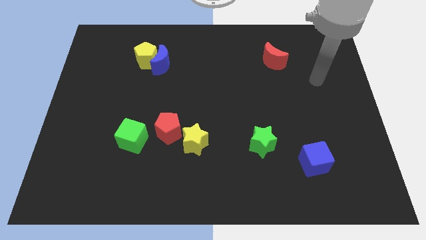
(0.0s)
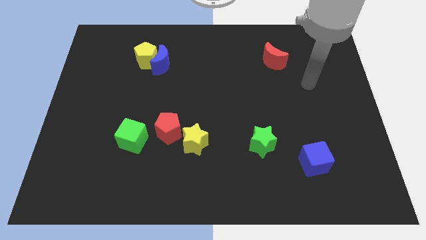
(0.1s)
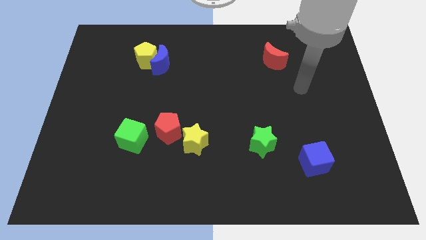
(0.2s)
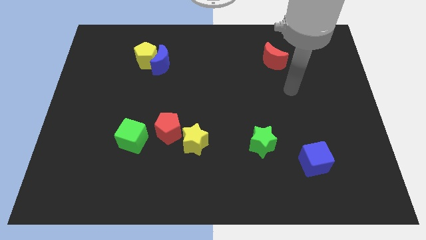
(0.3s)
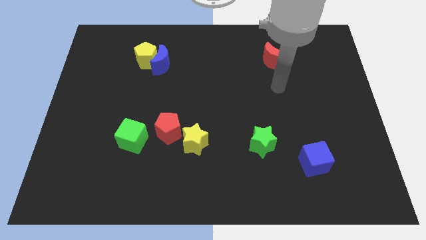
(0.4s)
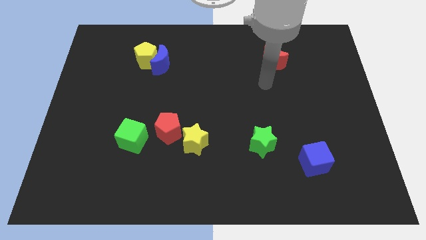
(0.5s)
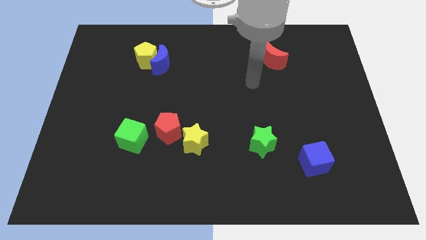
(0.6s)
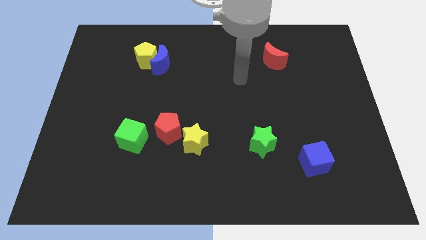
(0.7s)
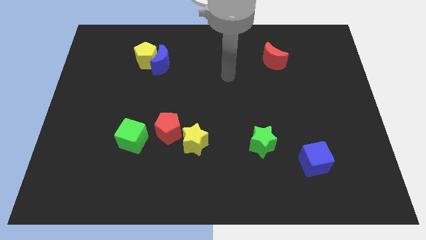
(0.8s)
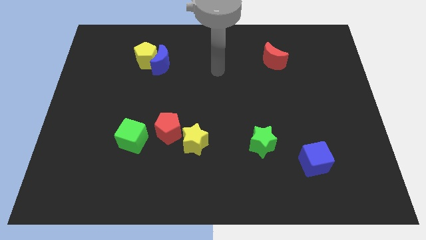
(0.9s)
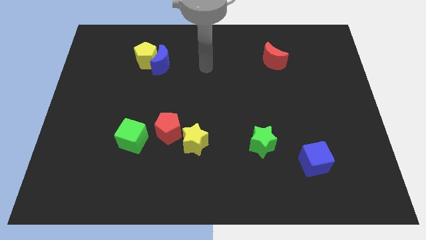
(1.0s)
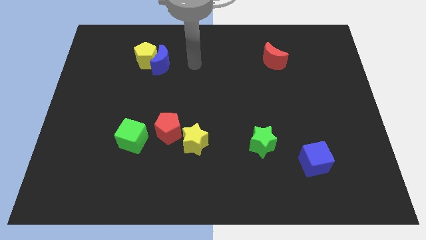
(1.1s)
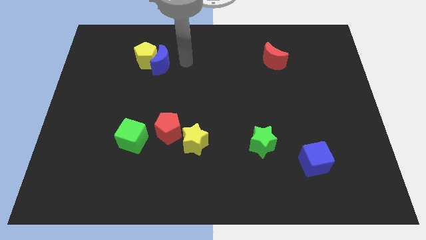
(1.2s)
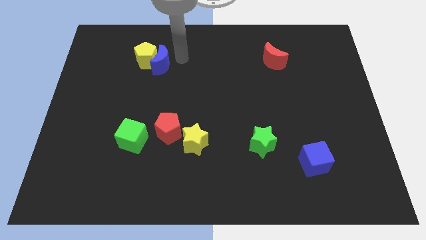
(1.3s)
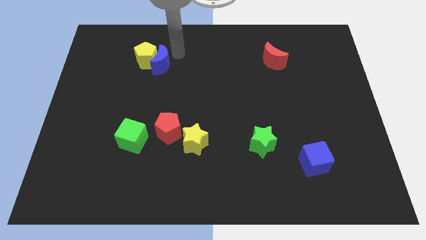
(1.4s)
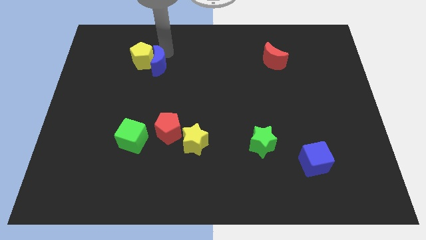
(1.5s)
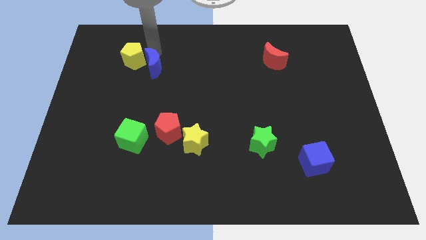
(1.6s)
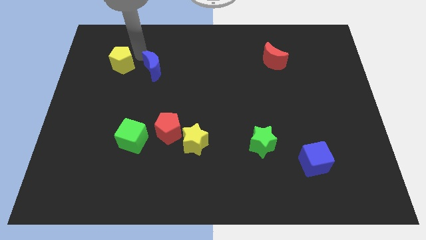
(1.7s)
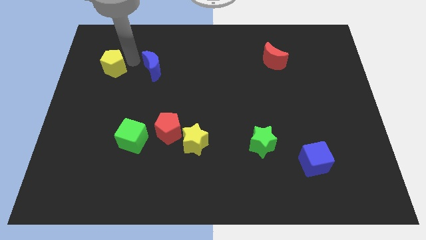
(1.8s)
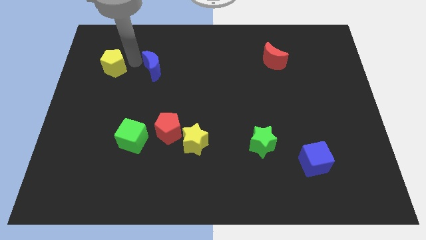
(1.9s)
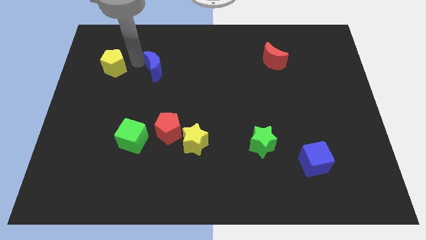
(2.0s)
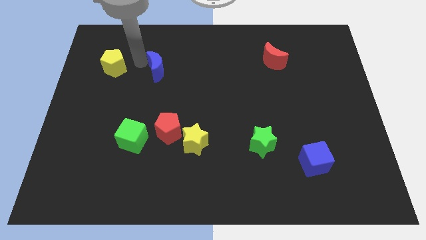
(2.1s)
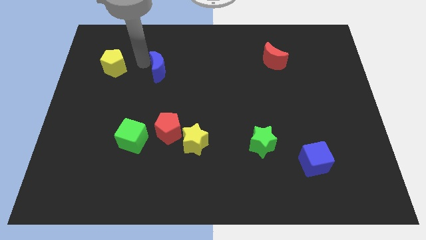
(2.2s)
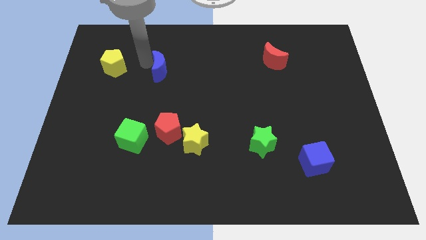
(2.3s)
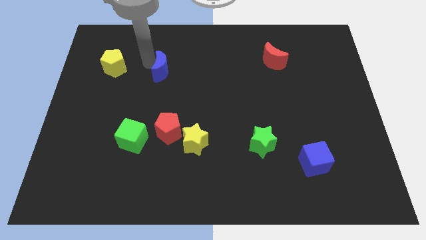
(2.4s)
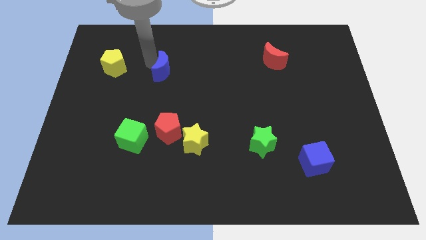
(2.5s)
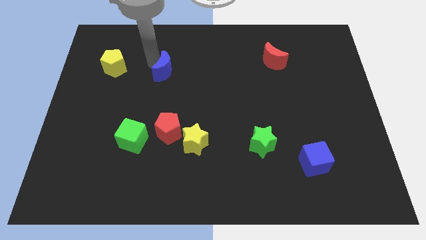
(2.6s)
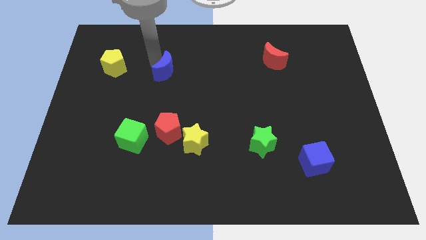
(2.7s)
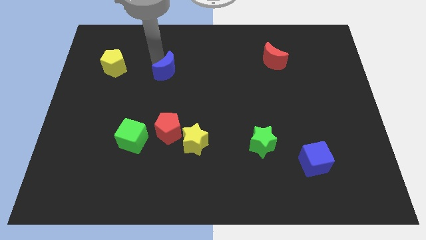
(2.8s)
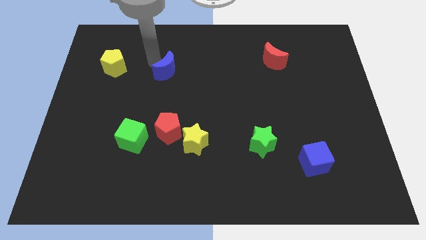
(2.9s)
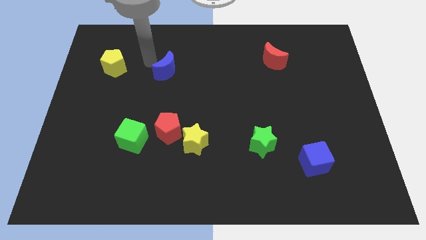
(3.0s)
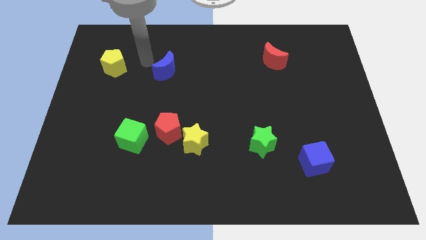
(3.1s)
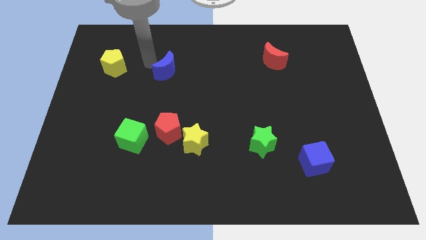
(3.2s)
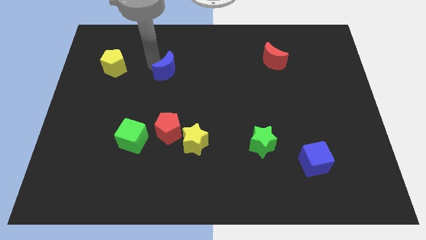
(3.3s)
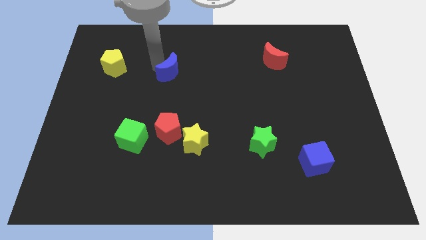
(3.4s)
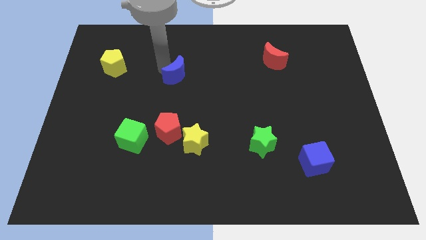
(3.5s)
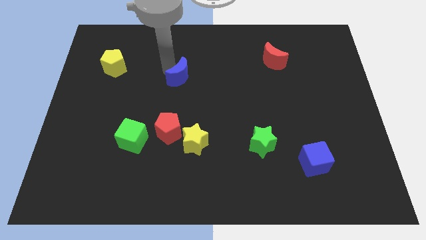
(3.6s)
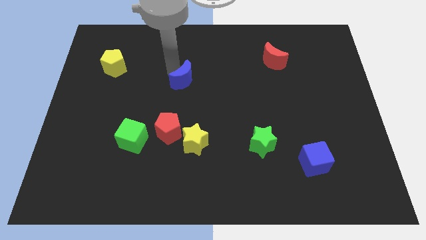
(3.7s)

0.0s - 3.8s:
slide the blue moon downwards and to the right diagonally a little

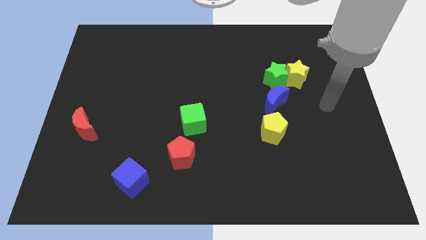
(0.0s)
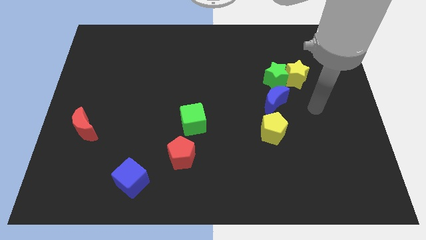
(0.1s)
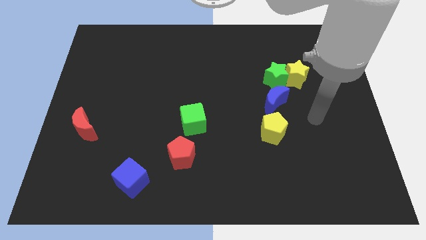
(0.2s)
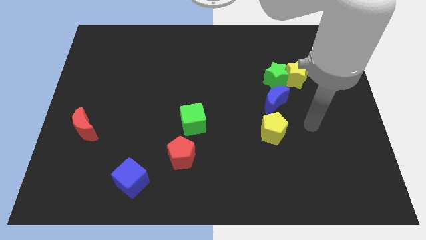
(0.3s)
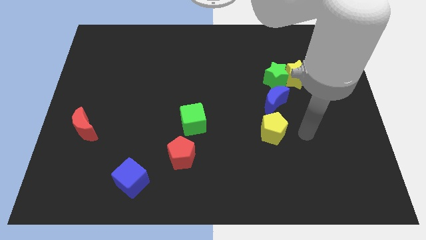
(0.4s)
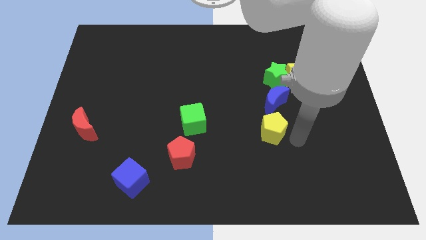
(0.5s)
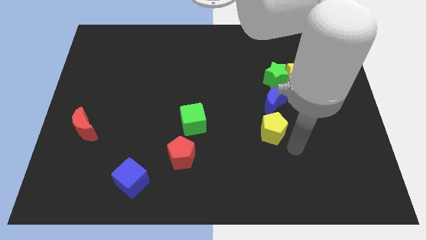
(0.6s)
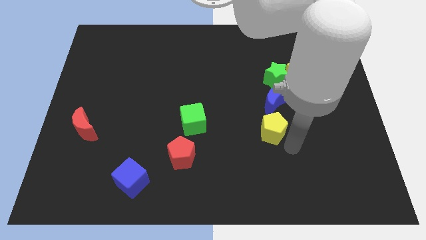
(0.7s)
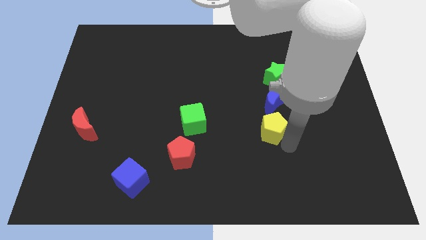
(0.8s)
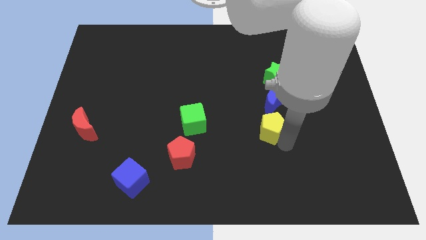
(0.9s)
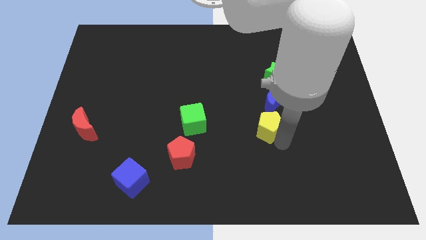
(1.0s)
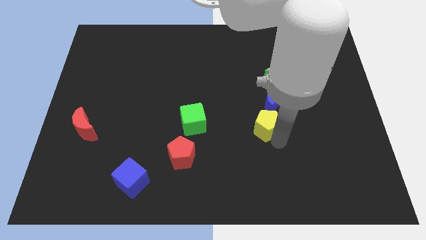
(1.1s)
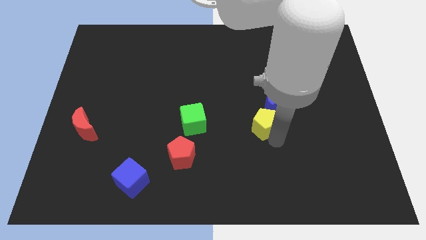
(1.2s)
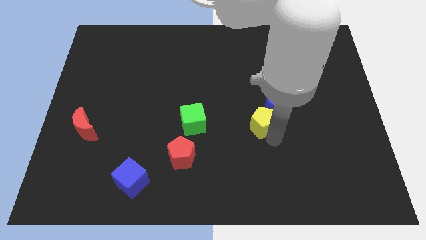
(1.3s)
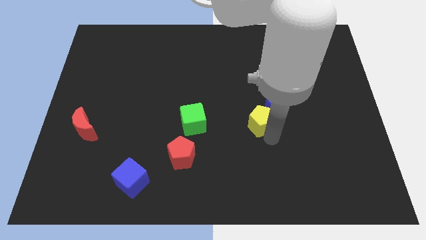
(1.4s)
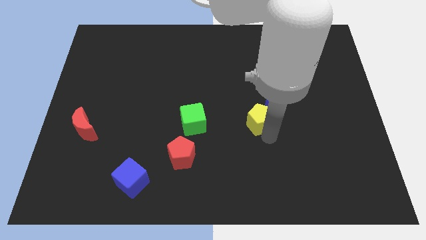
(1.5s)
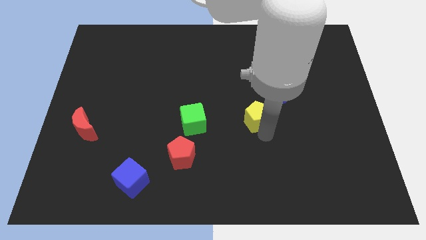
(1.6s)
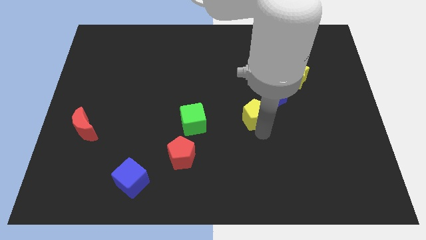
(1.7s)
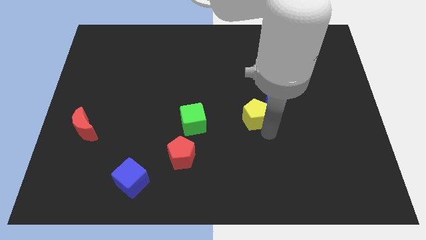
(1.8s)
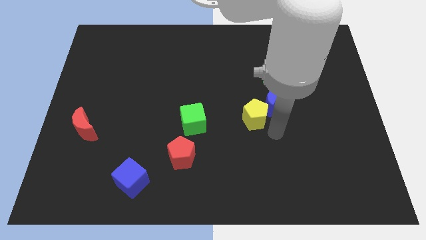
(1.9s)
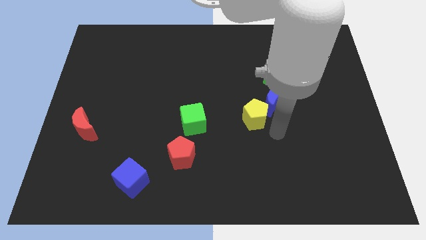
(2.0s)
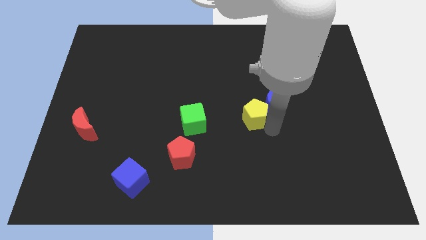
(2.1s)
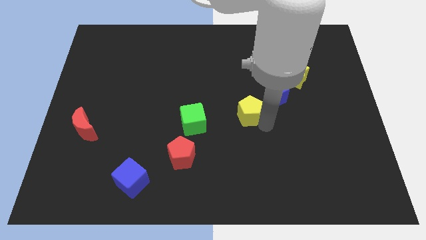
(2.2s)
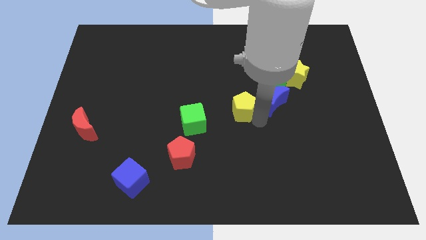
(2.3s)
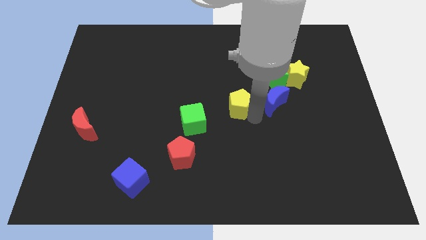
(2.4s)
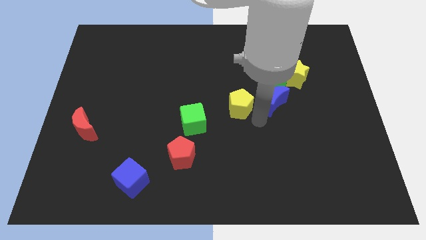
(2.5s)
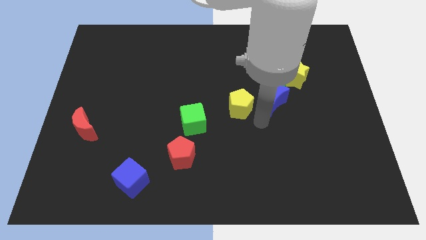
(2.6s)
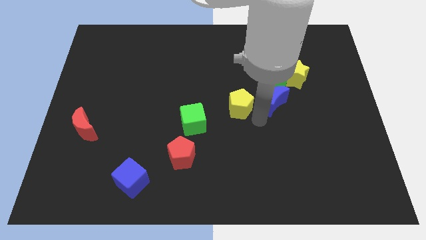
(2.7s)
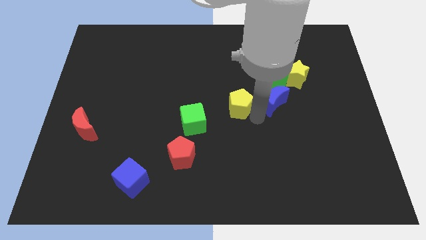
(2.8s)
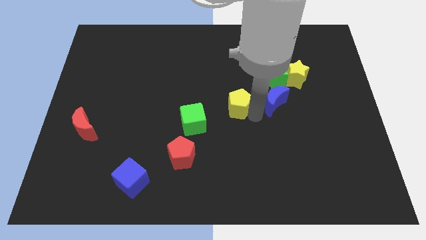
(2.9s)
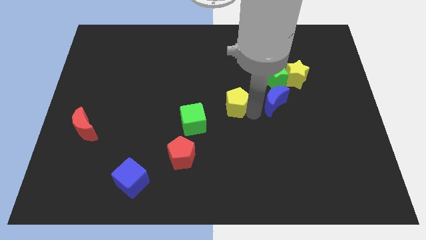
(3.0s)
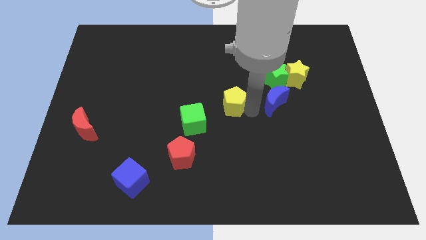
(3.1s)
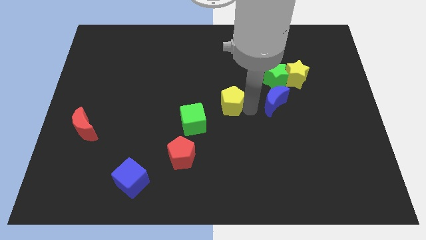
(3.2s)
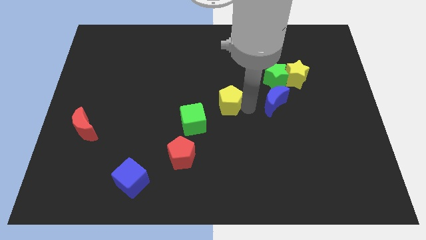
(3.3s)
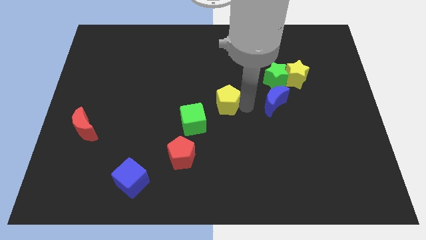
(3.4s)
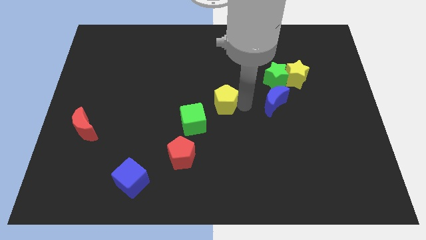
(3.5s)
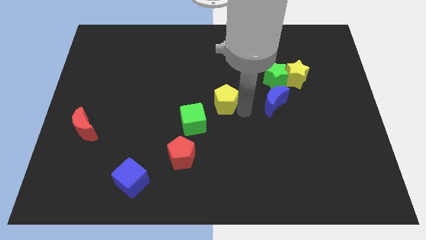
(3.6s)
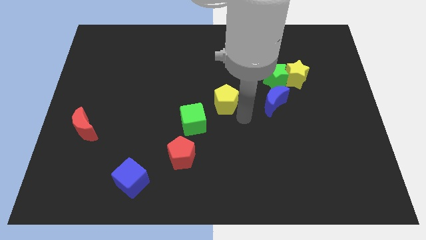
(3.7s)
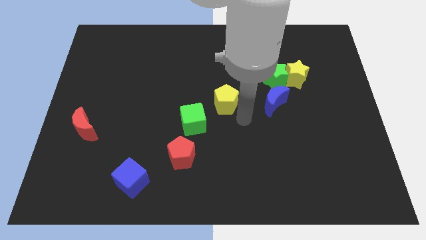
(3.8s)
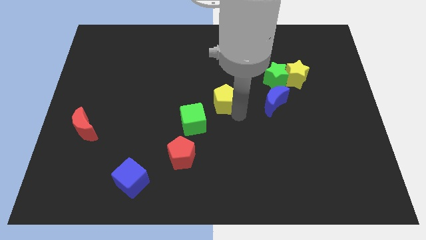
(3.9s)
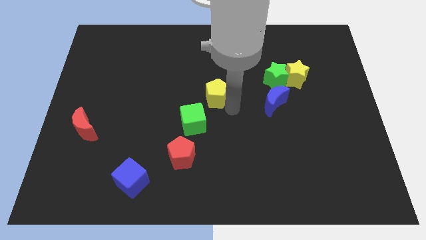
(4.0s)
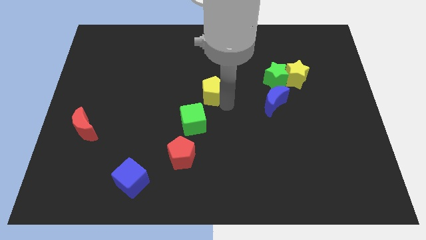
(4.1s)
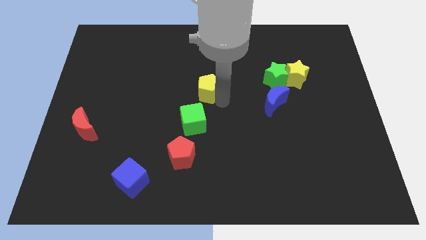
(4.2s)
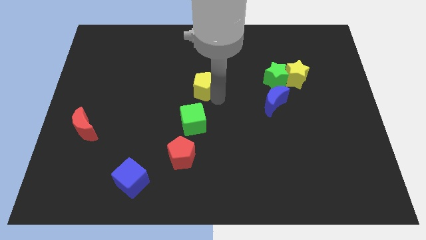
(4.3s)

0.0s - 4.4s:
slide the yellow pentagon up and to the left
